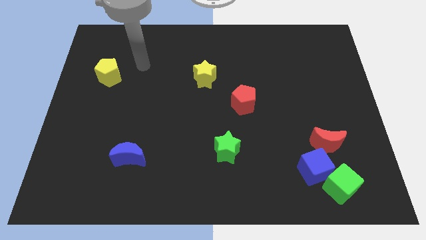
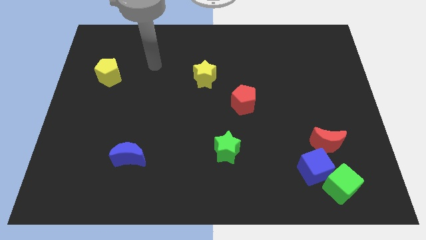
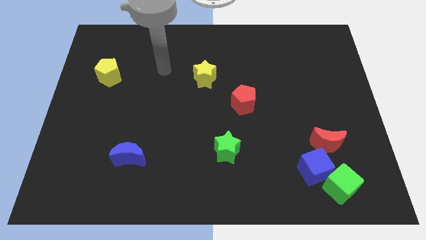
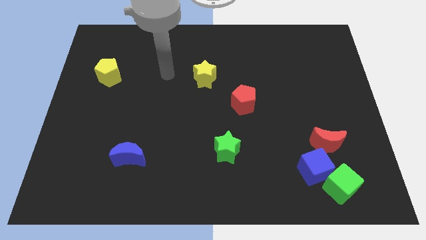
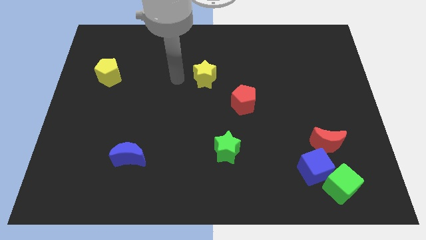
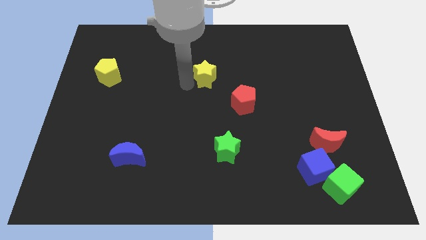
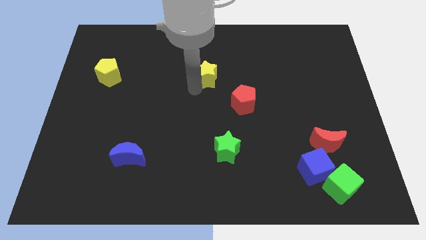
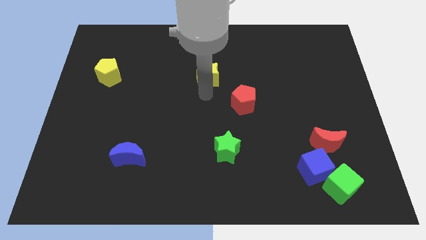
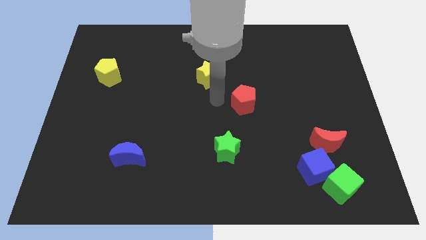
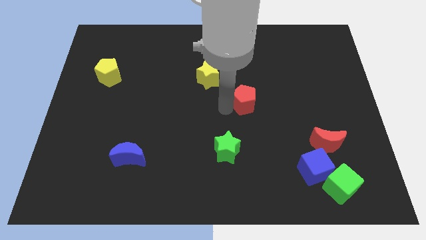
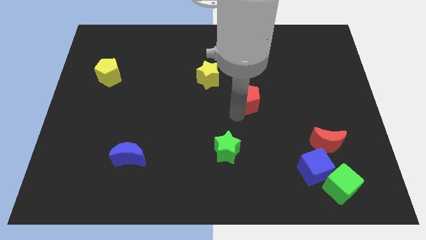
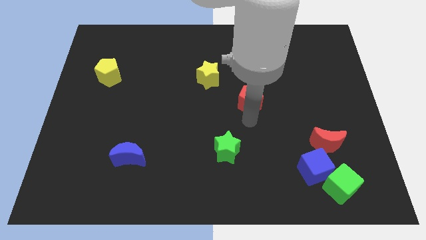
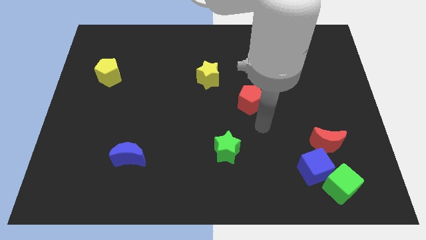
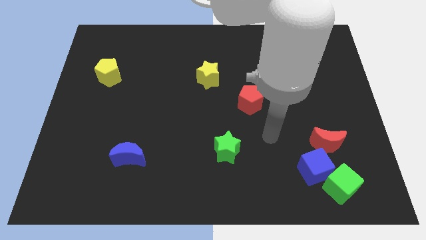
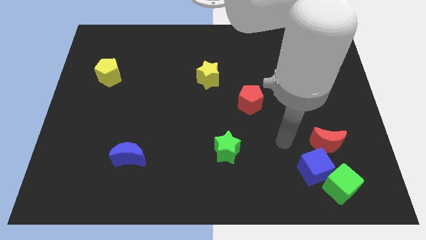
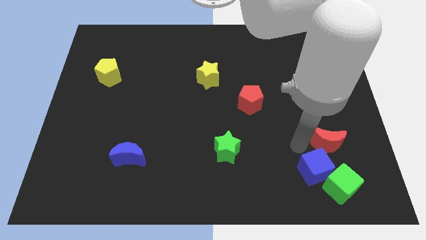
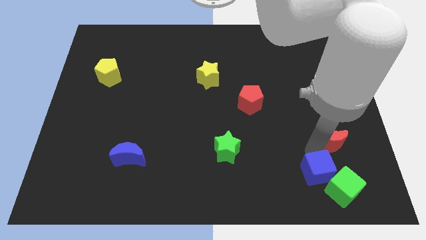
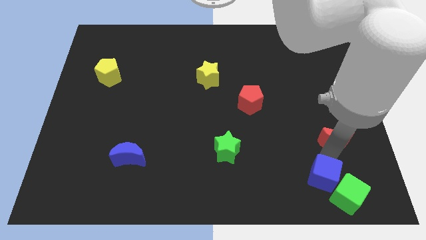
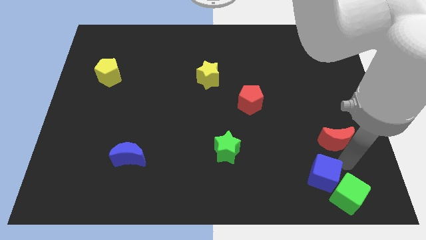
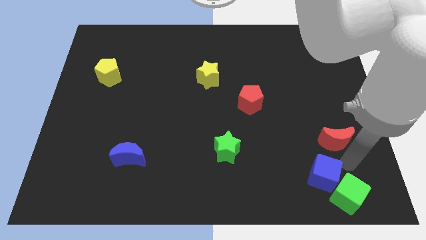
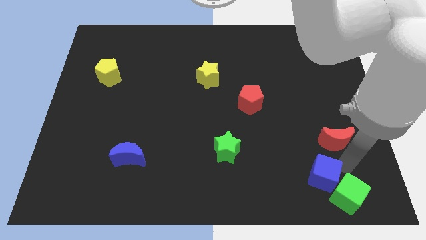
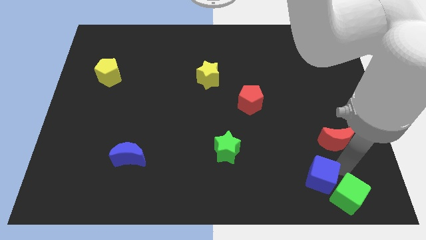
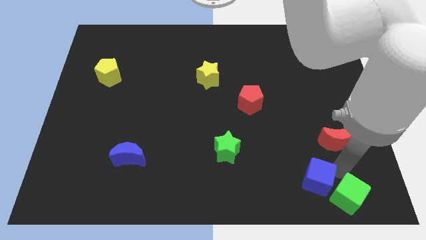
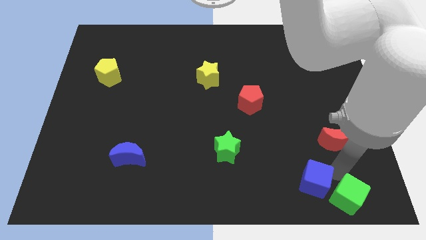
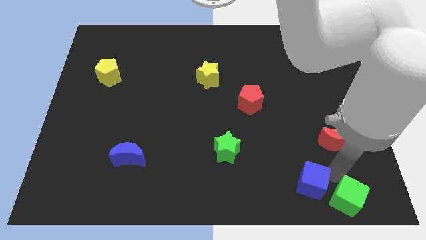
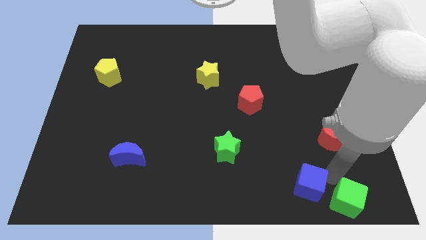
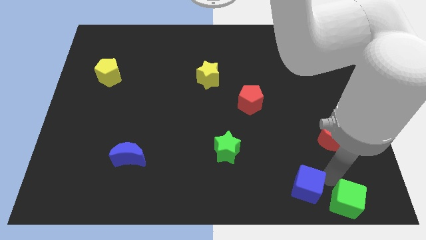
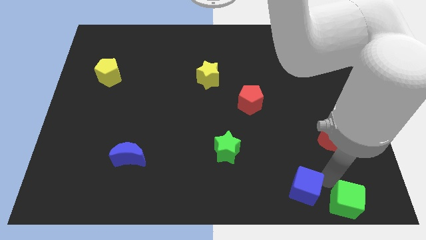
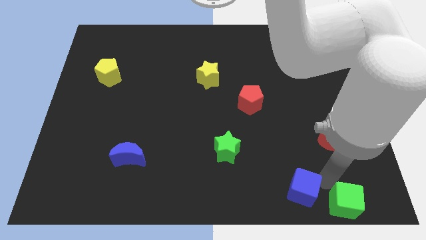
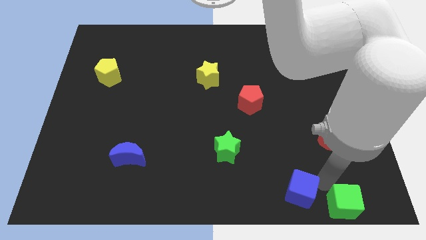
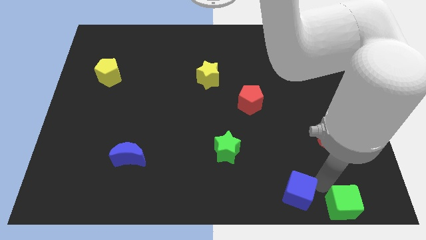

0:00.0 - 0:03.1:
separate the blue cube from the green cube and red moon

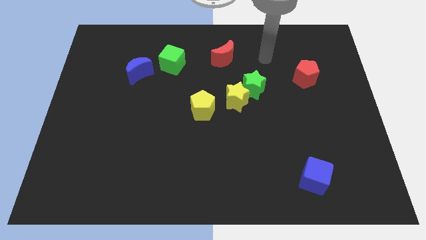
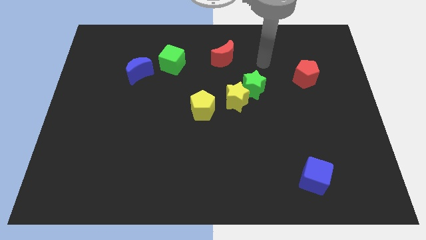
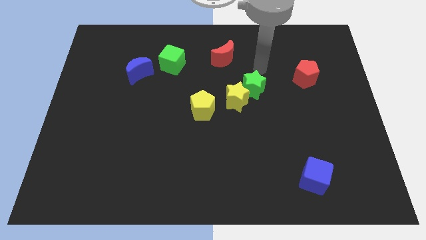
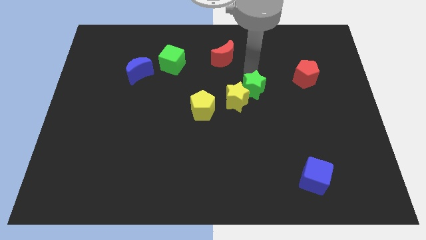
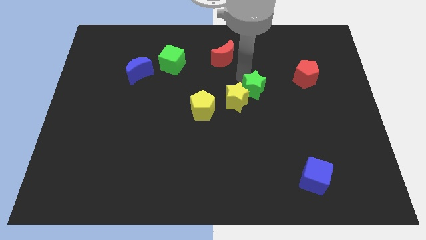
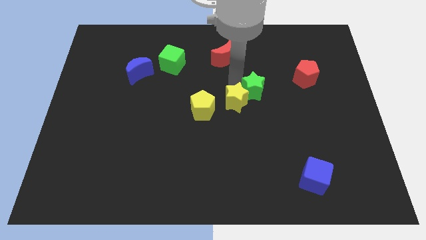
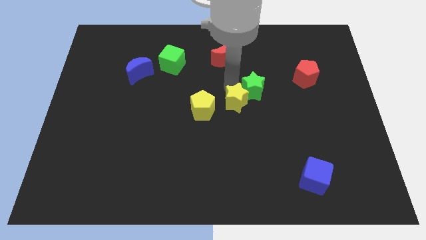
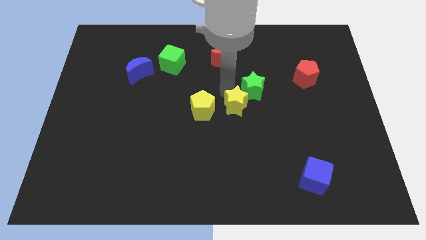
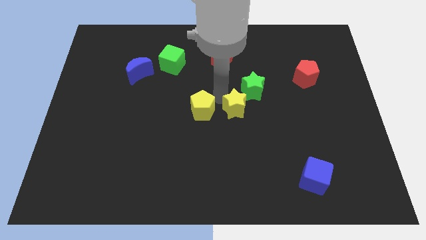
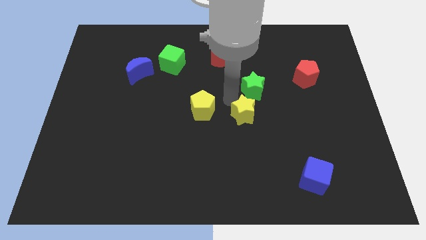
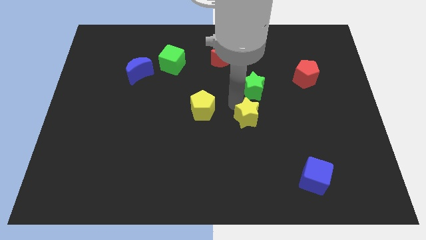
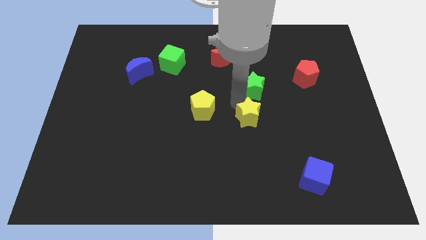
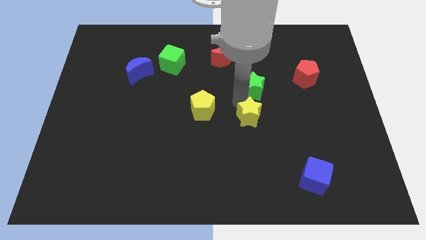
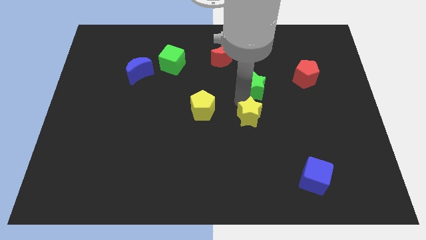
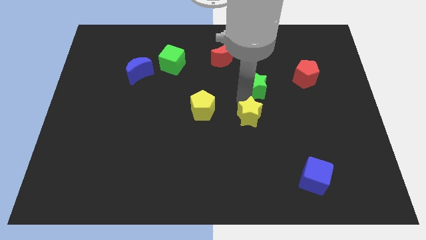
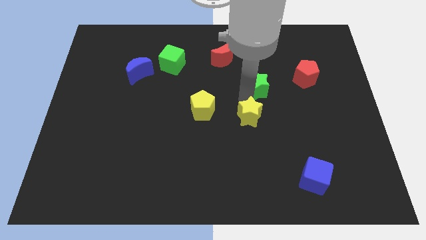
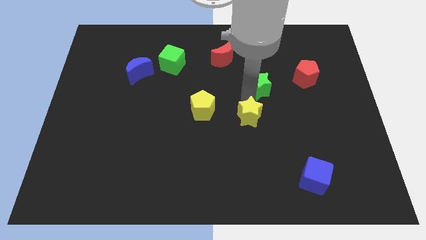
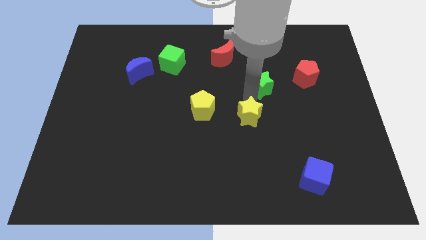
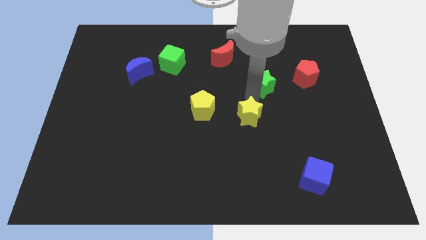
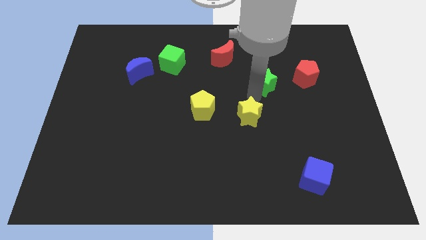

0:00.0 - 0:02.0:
move the green star away from the yellow star

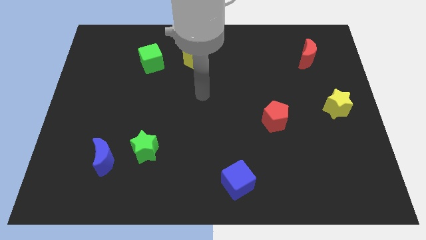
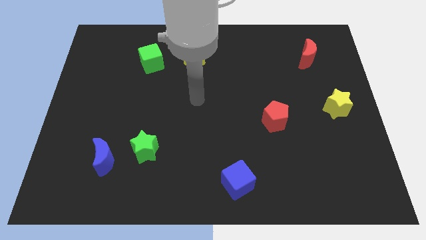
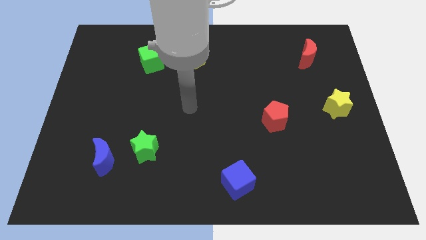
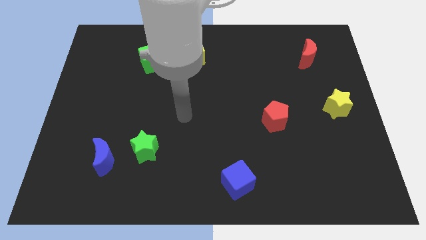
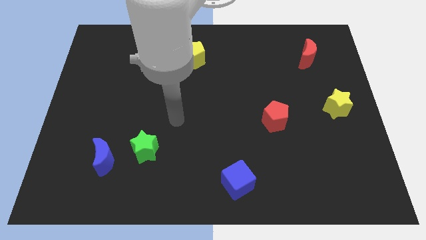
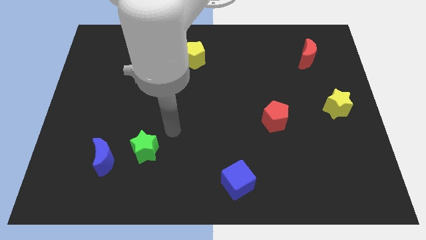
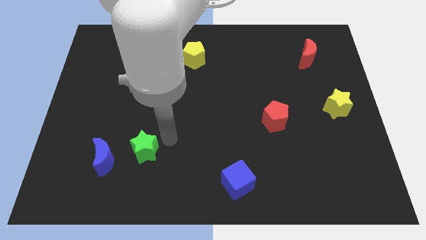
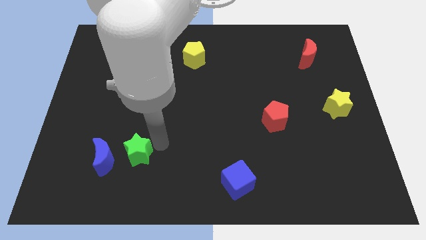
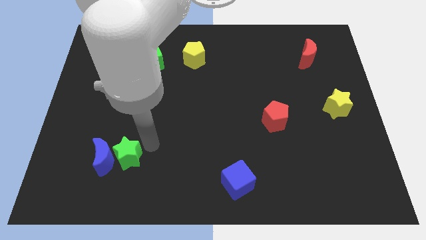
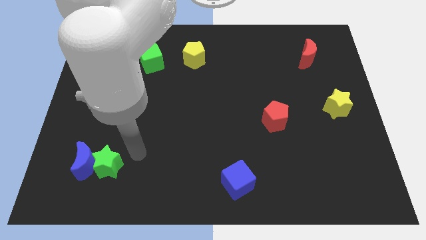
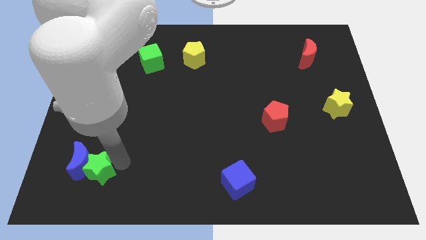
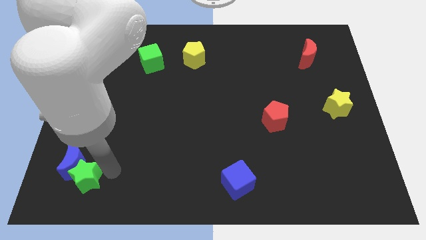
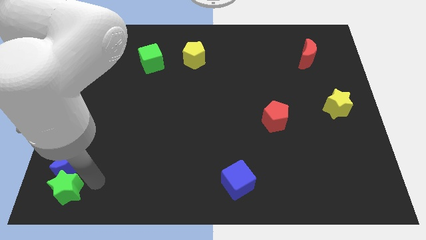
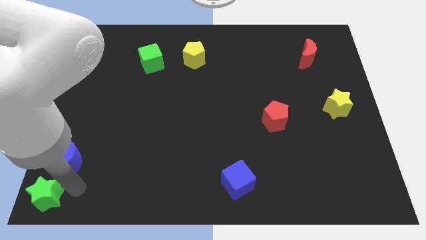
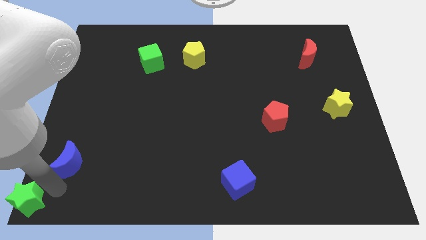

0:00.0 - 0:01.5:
separate the blue moon from the green star

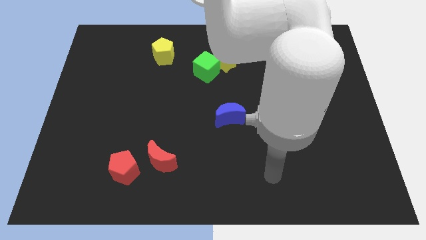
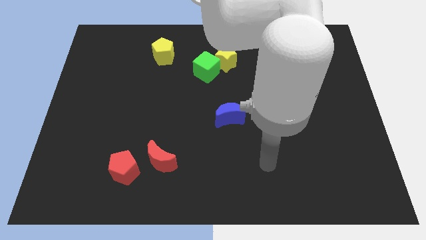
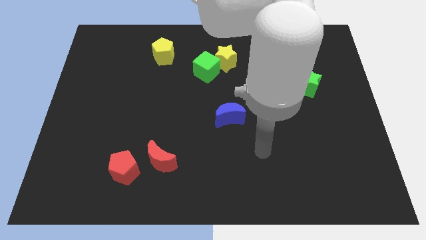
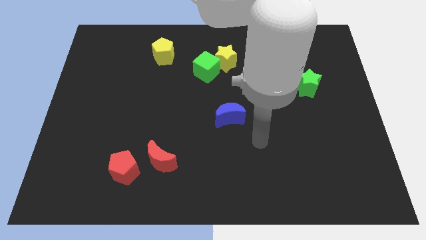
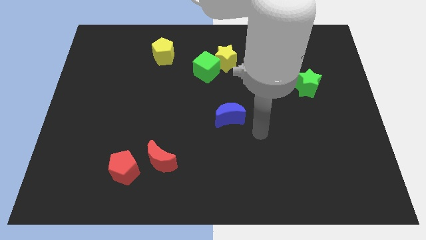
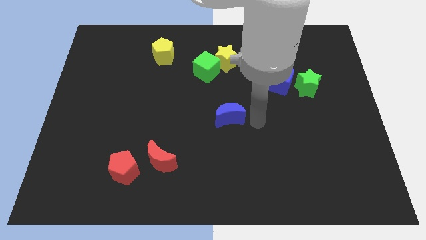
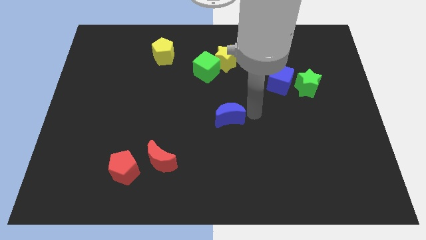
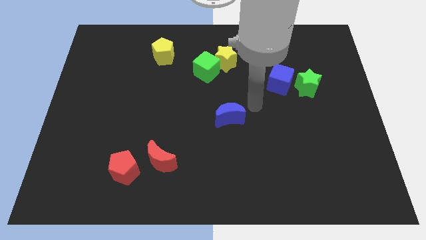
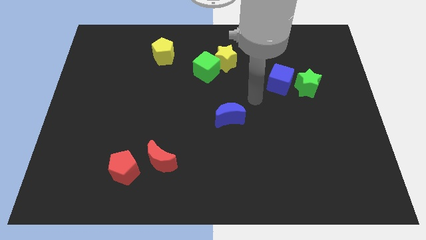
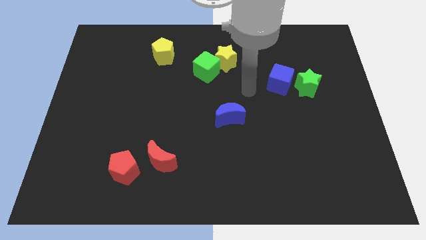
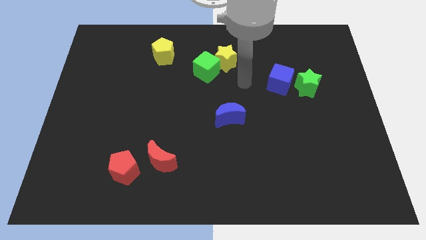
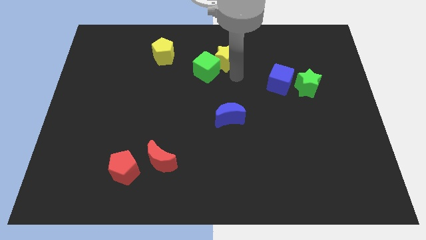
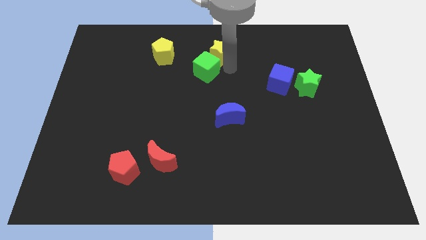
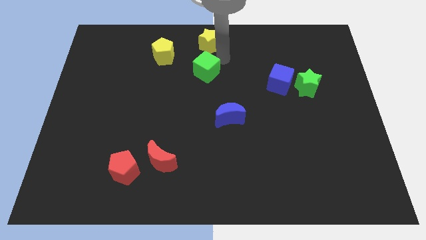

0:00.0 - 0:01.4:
separate the green cube from the yellow star

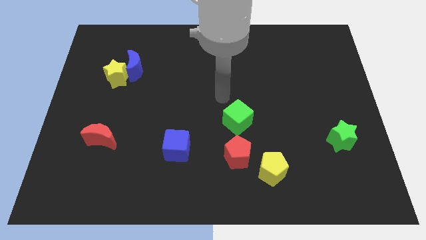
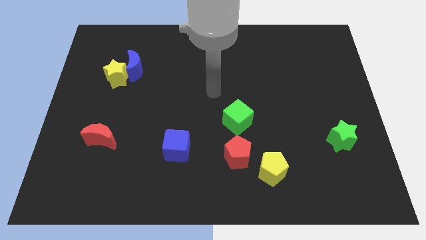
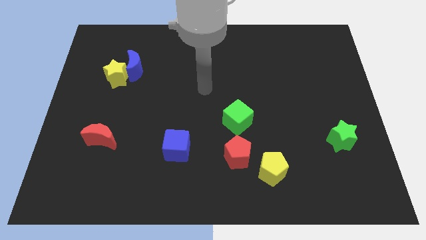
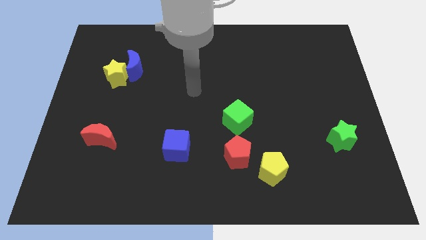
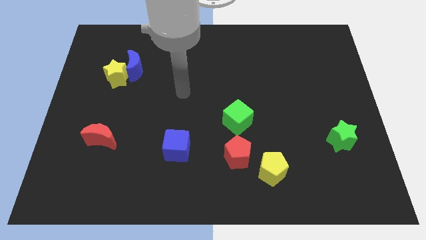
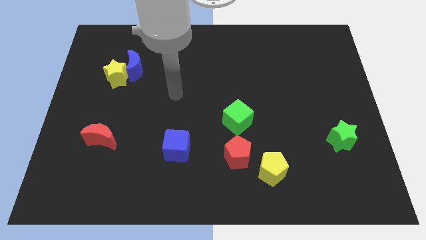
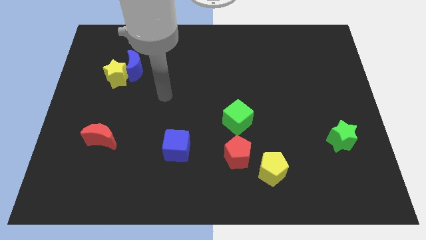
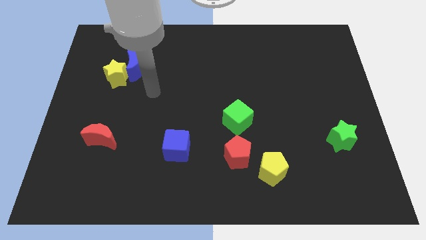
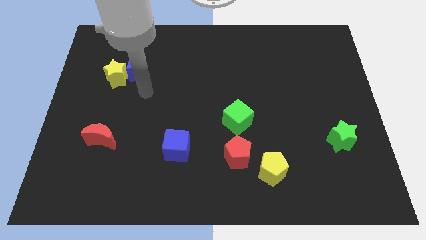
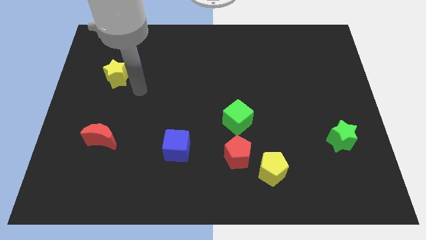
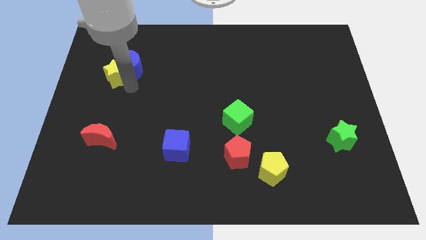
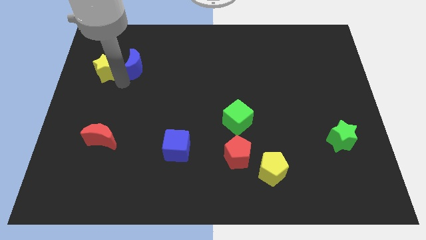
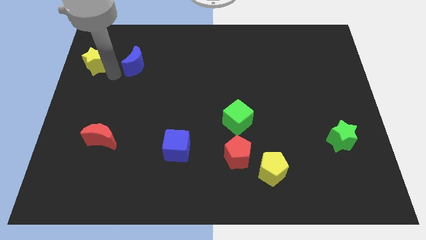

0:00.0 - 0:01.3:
move the blue moon away from the yellow star

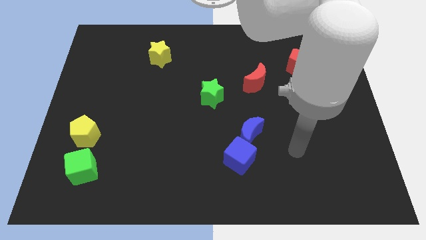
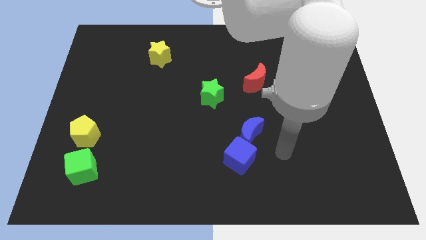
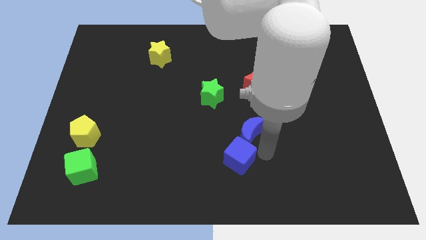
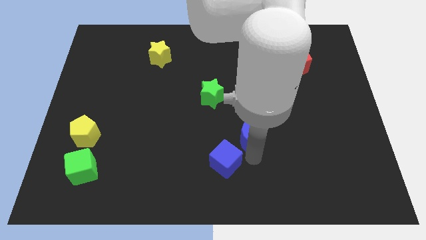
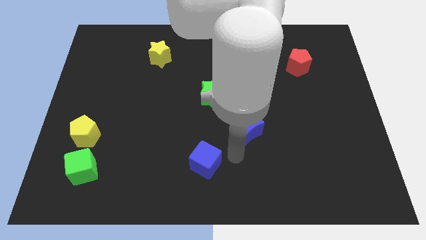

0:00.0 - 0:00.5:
pull the blue moon apart from the blue cube
